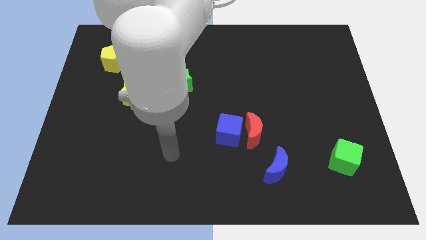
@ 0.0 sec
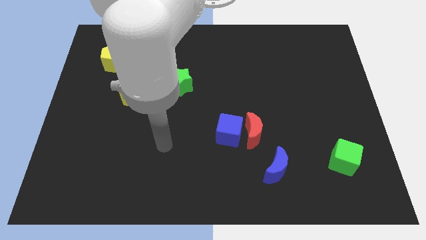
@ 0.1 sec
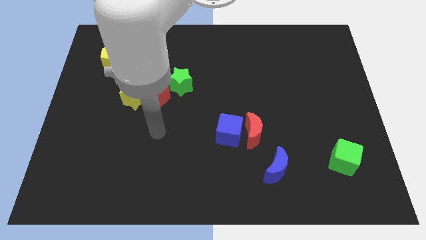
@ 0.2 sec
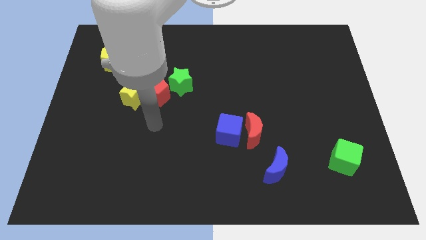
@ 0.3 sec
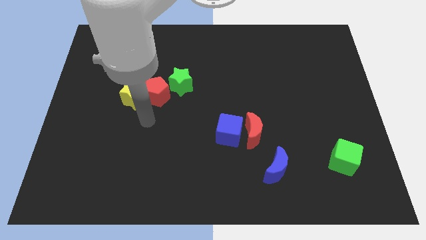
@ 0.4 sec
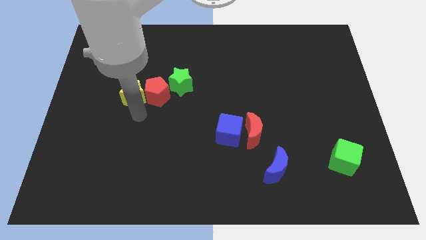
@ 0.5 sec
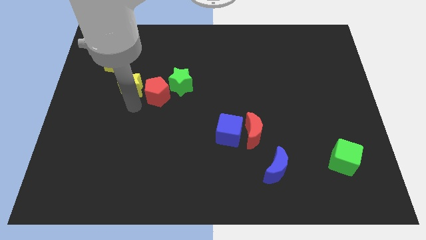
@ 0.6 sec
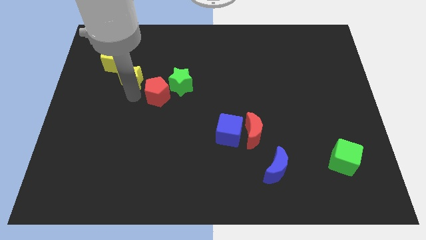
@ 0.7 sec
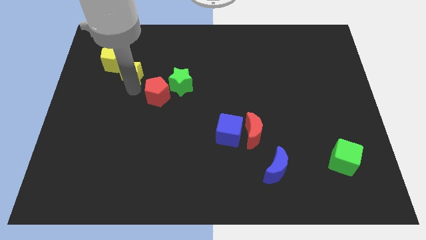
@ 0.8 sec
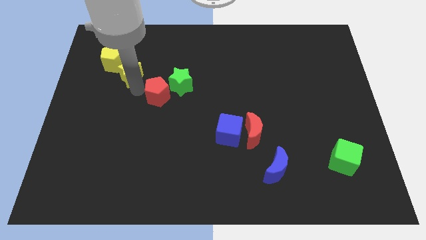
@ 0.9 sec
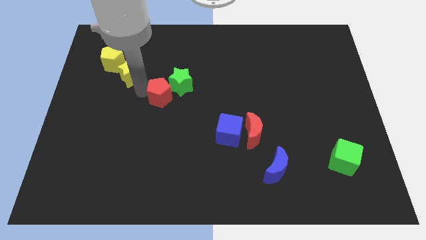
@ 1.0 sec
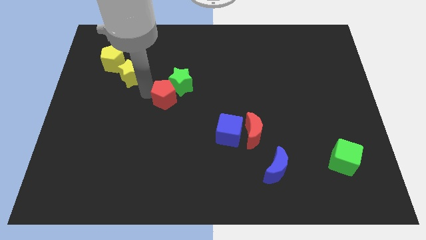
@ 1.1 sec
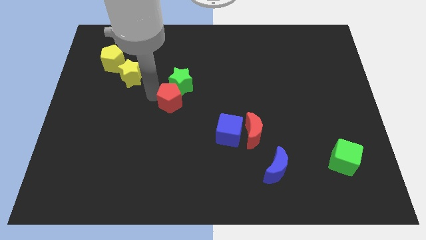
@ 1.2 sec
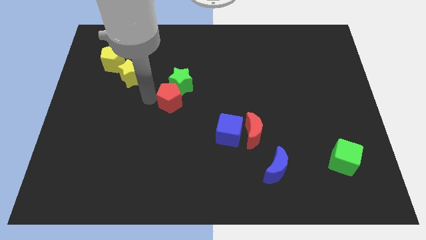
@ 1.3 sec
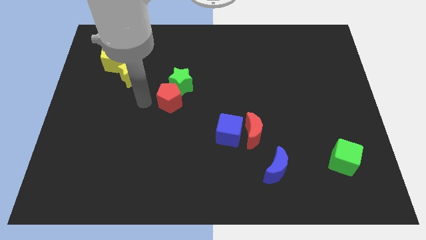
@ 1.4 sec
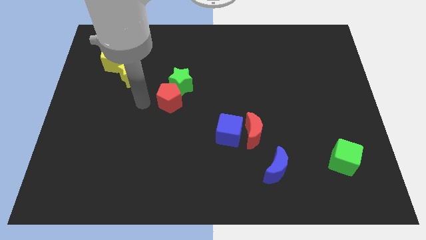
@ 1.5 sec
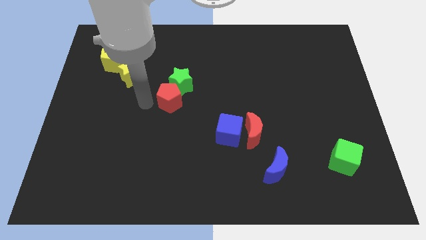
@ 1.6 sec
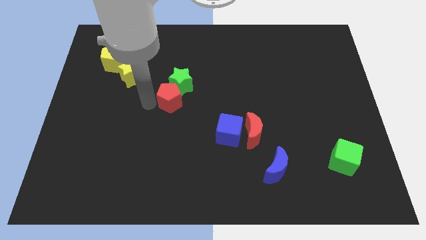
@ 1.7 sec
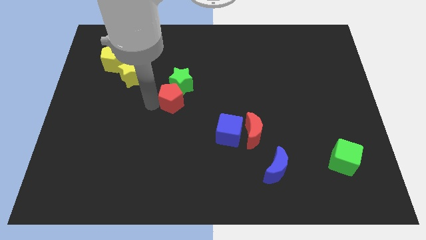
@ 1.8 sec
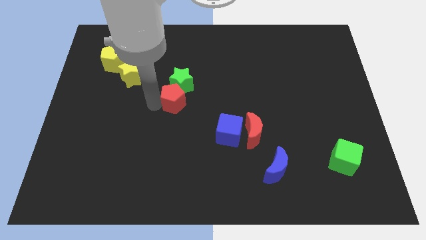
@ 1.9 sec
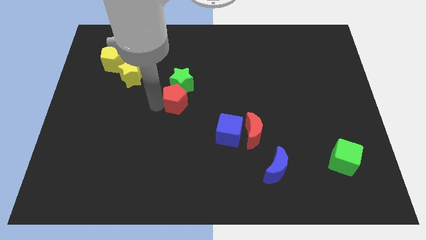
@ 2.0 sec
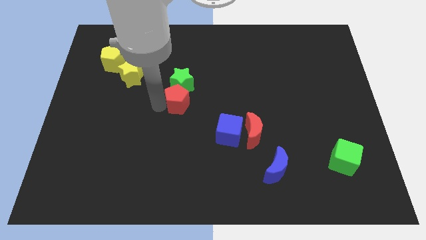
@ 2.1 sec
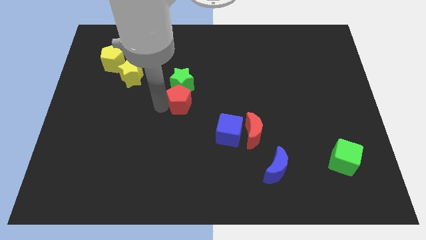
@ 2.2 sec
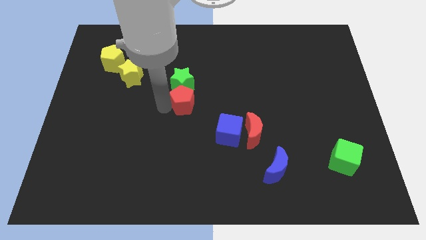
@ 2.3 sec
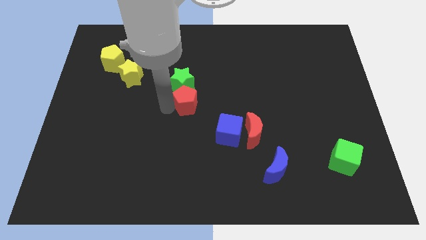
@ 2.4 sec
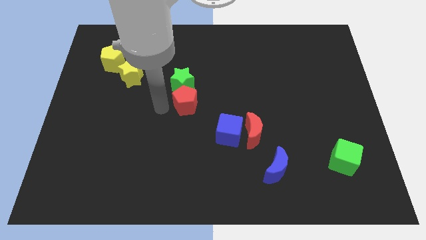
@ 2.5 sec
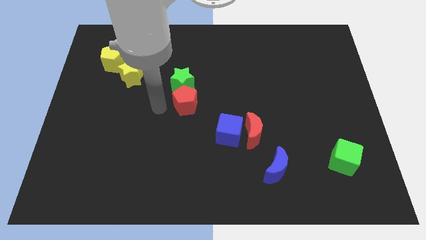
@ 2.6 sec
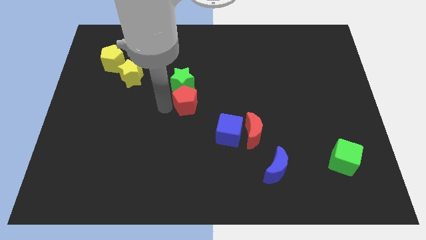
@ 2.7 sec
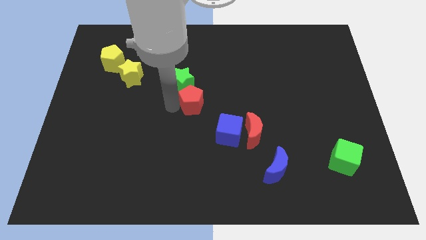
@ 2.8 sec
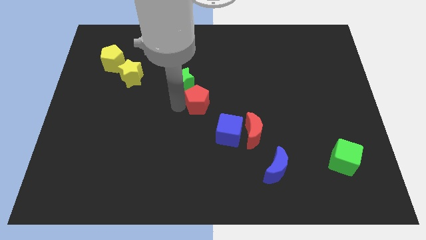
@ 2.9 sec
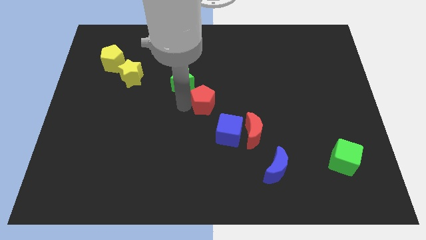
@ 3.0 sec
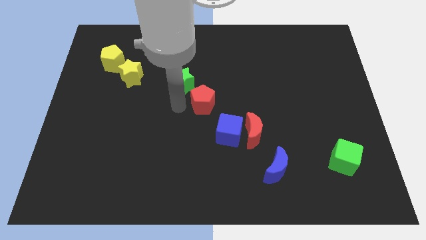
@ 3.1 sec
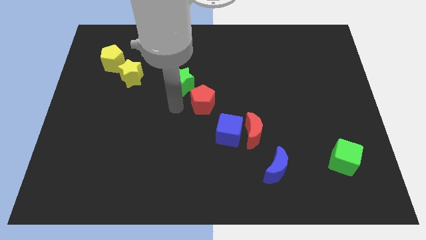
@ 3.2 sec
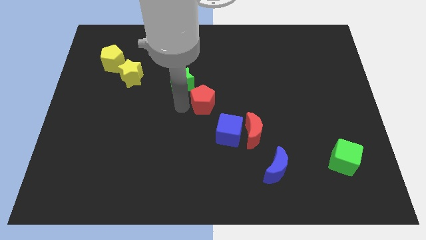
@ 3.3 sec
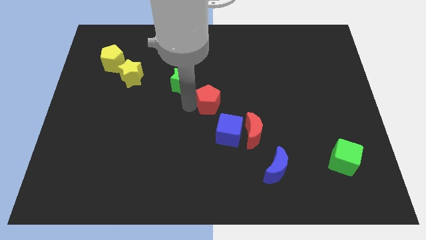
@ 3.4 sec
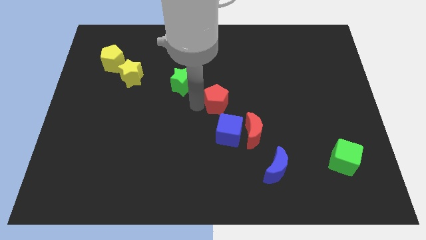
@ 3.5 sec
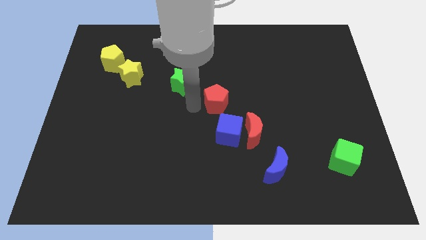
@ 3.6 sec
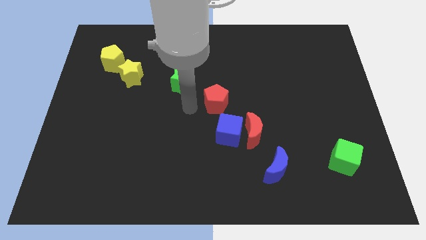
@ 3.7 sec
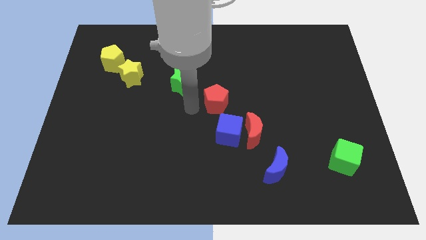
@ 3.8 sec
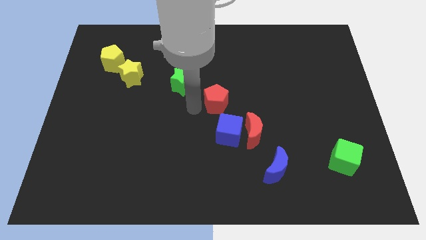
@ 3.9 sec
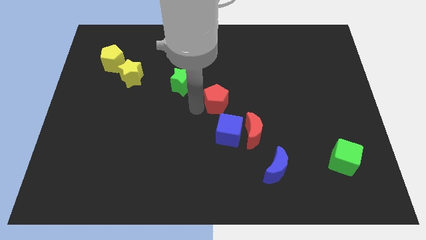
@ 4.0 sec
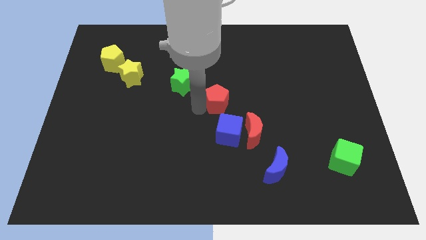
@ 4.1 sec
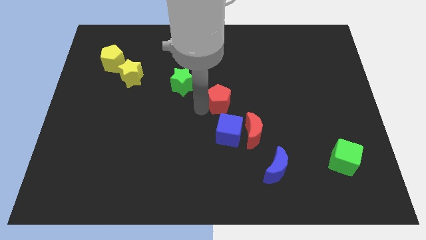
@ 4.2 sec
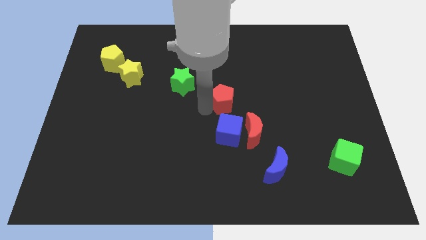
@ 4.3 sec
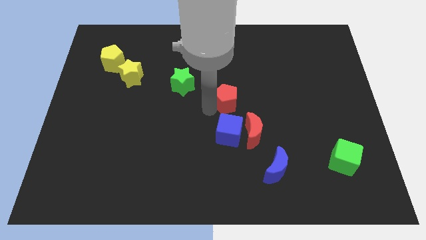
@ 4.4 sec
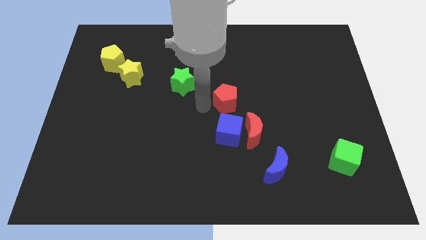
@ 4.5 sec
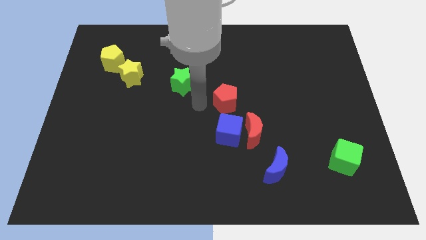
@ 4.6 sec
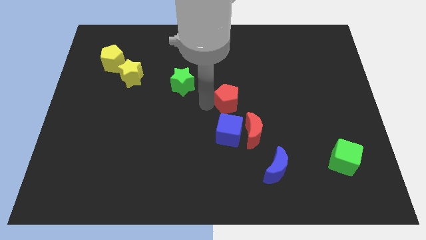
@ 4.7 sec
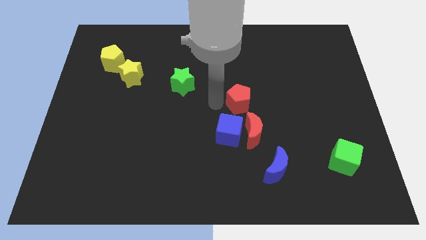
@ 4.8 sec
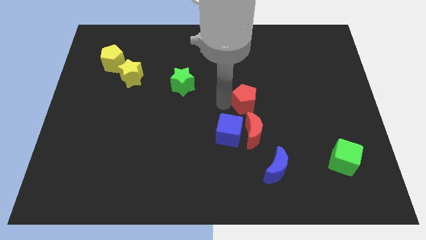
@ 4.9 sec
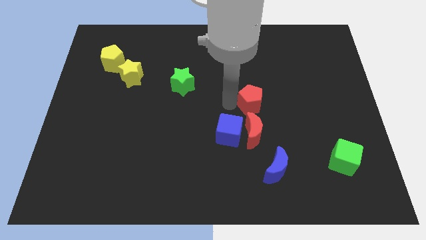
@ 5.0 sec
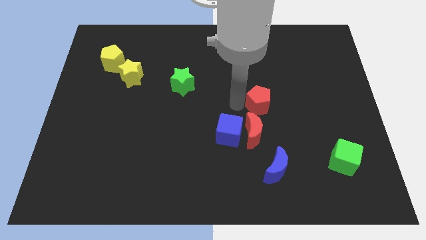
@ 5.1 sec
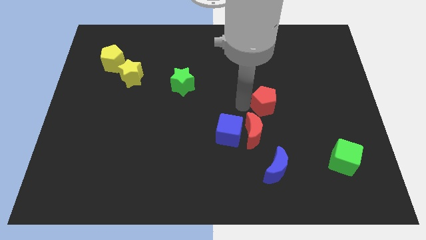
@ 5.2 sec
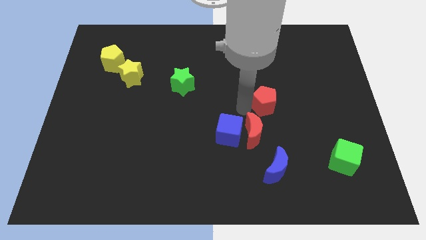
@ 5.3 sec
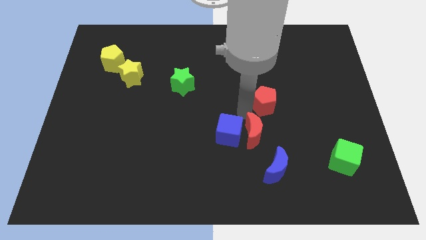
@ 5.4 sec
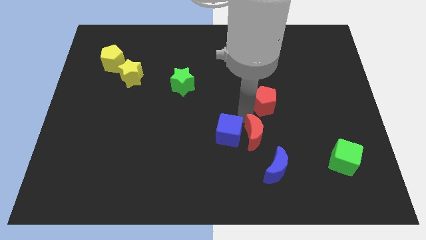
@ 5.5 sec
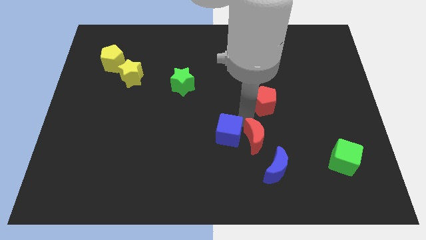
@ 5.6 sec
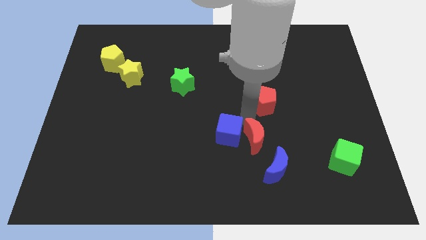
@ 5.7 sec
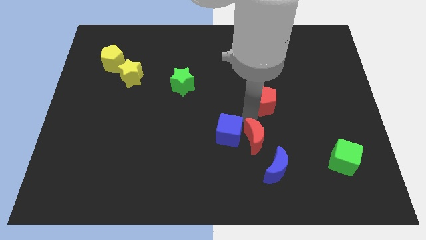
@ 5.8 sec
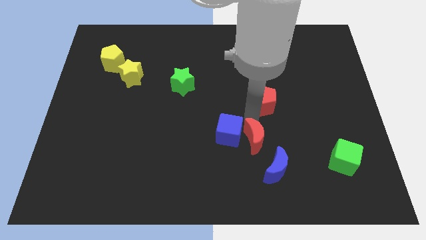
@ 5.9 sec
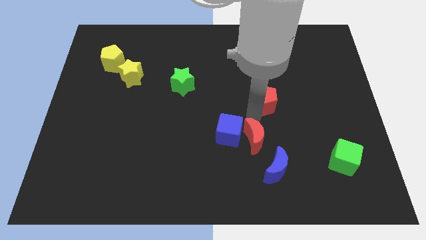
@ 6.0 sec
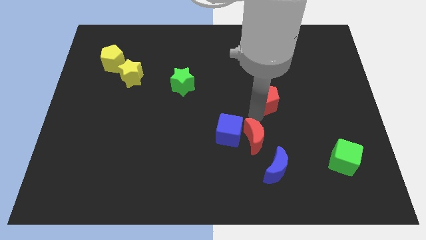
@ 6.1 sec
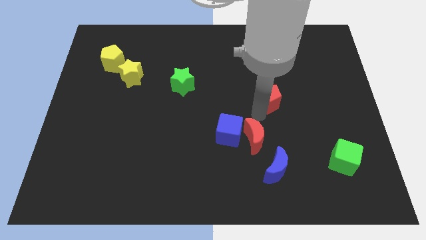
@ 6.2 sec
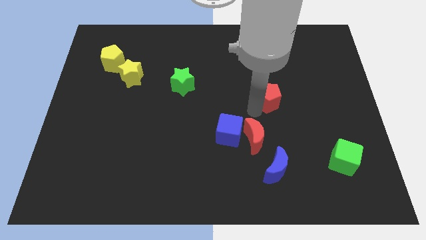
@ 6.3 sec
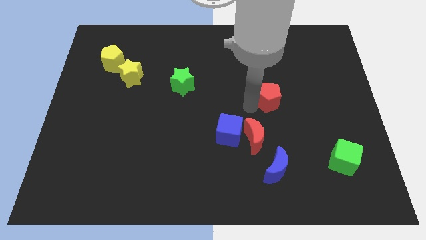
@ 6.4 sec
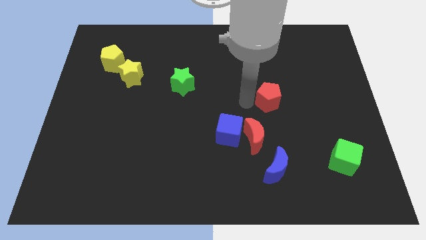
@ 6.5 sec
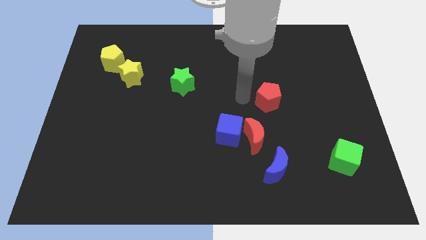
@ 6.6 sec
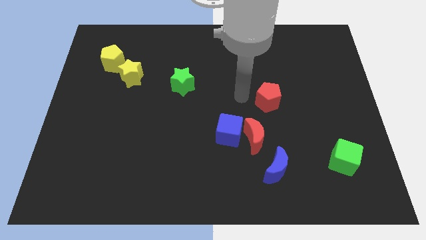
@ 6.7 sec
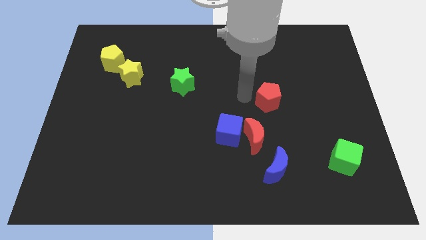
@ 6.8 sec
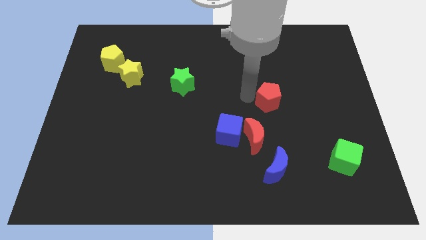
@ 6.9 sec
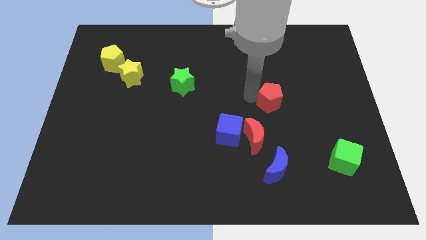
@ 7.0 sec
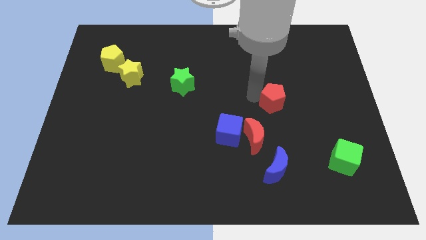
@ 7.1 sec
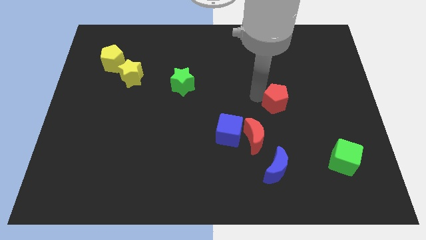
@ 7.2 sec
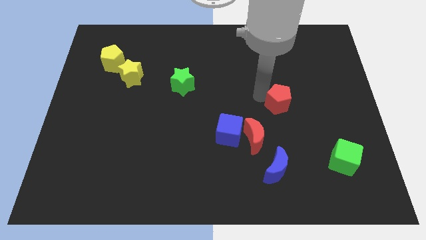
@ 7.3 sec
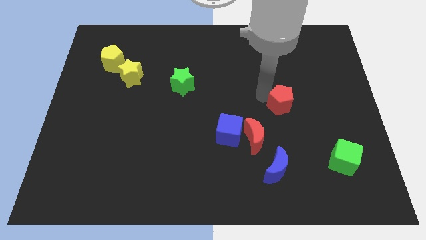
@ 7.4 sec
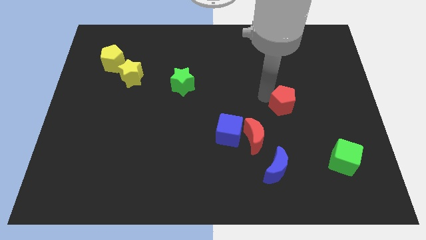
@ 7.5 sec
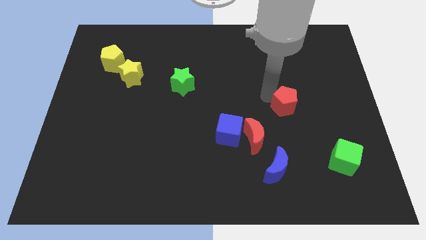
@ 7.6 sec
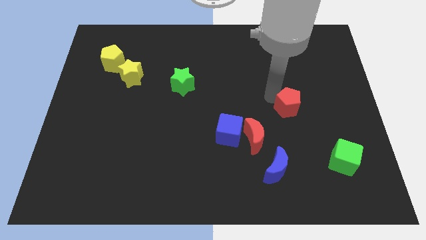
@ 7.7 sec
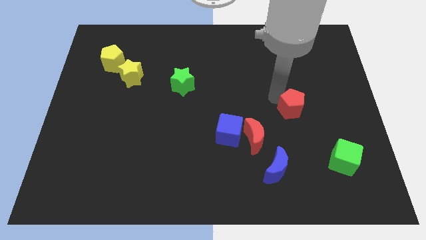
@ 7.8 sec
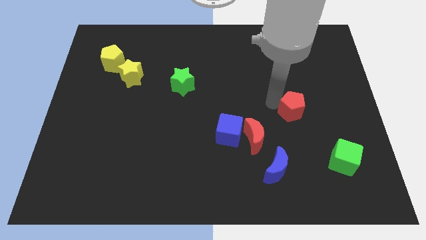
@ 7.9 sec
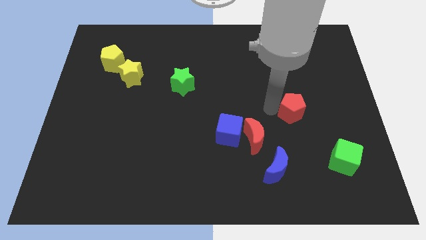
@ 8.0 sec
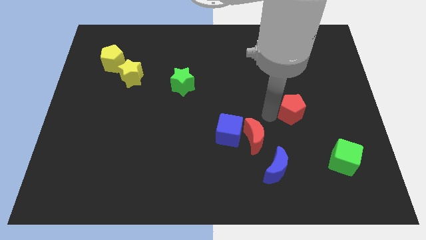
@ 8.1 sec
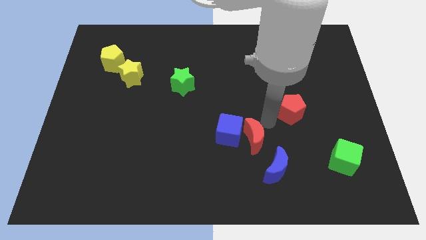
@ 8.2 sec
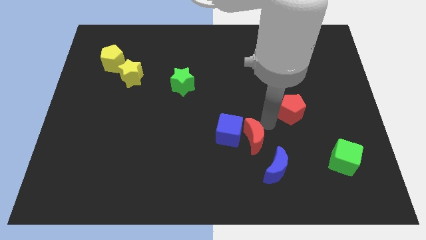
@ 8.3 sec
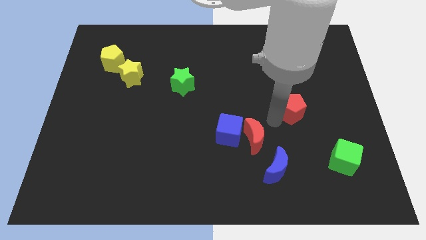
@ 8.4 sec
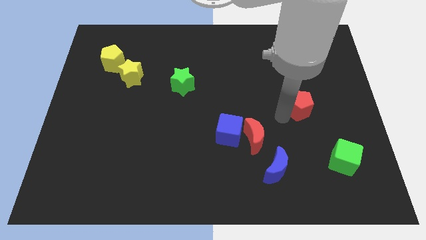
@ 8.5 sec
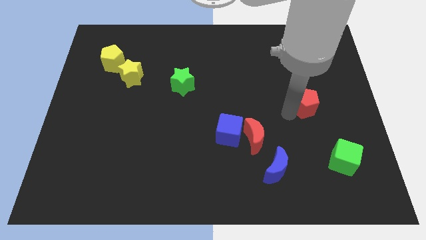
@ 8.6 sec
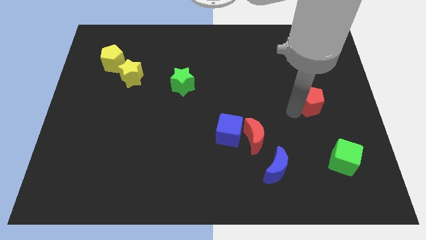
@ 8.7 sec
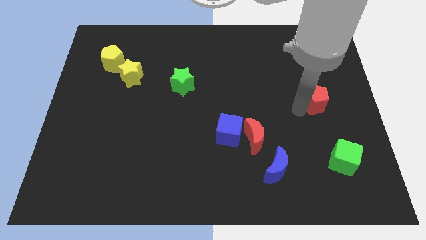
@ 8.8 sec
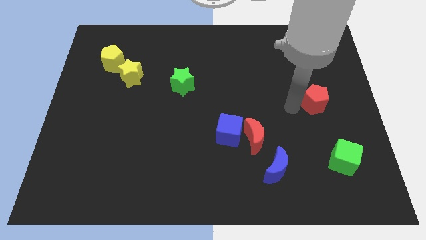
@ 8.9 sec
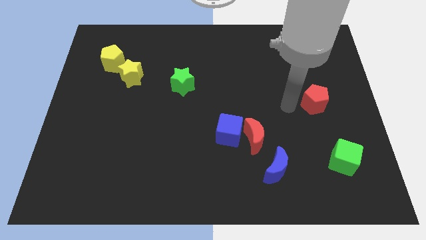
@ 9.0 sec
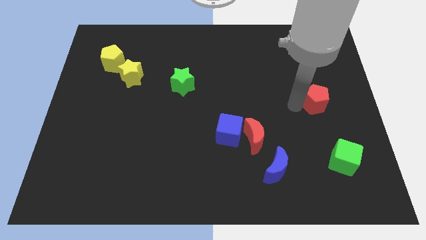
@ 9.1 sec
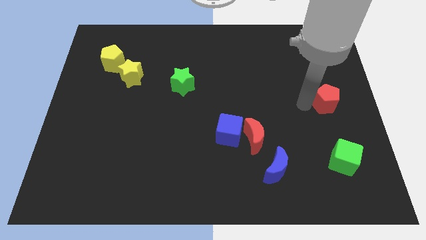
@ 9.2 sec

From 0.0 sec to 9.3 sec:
move the red pentagon to the right side of the board
